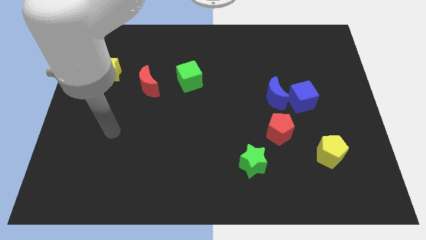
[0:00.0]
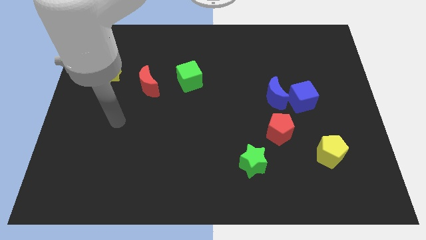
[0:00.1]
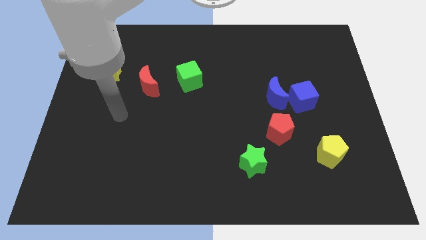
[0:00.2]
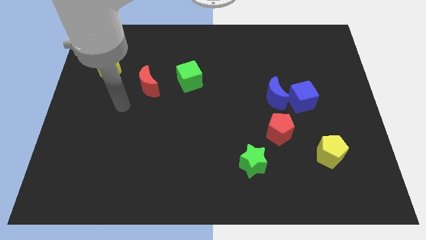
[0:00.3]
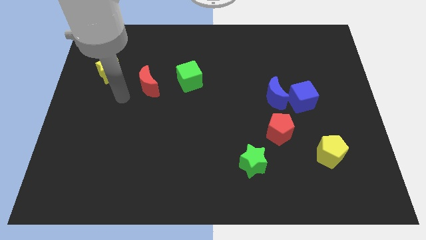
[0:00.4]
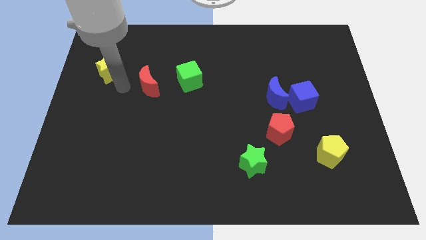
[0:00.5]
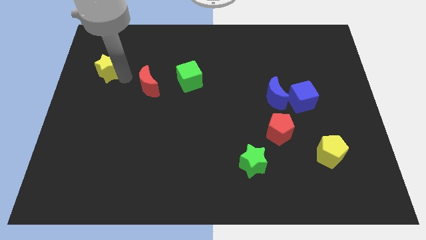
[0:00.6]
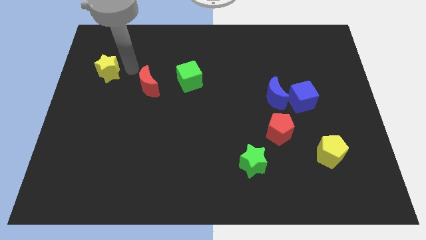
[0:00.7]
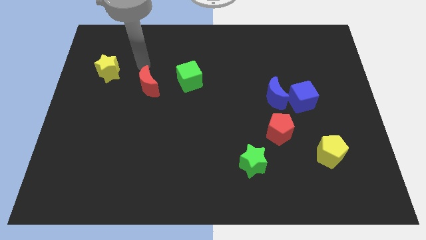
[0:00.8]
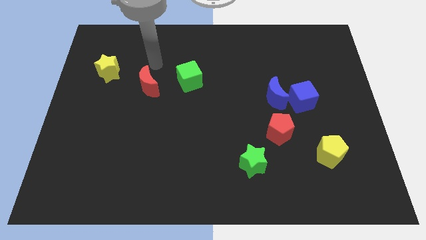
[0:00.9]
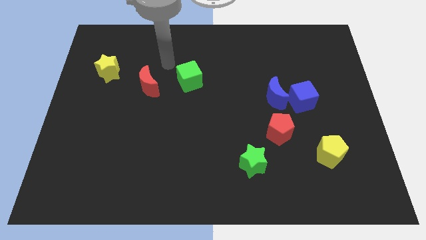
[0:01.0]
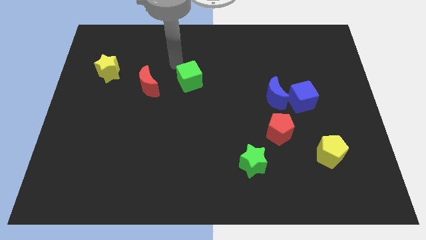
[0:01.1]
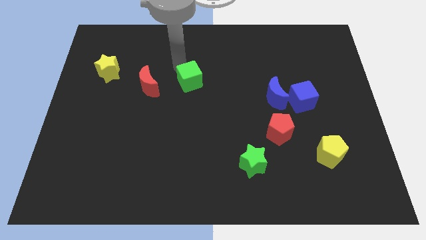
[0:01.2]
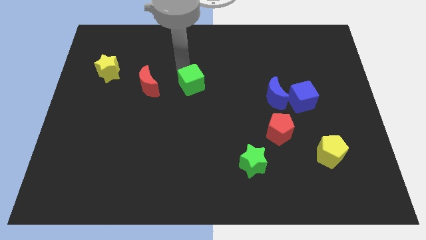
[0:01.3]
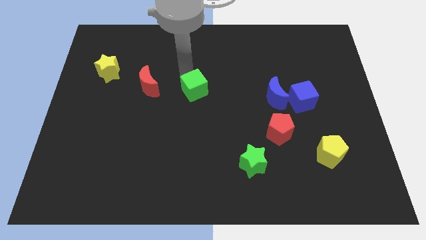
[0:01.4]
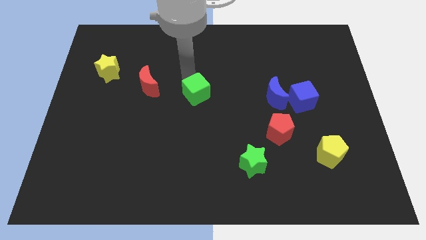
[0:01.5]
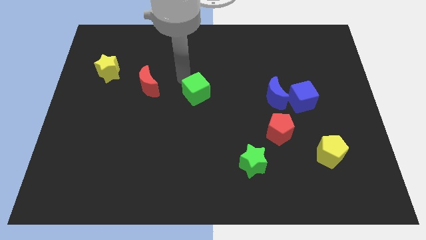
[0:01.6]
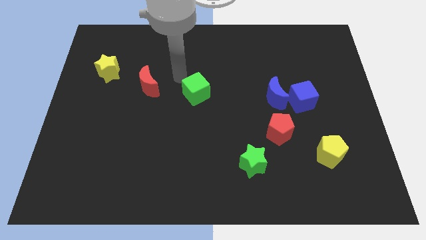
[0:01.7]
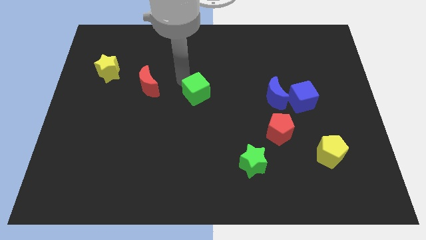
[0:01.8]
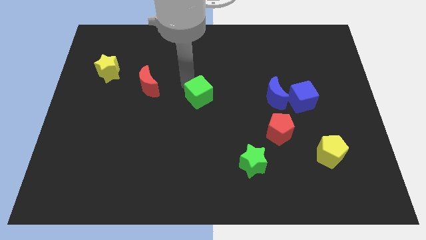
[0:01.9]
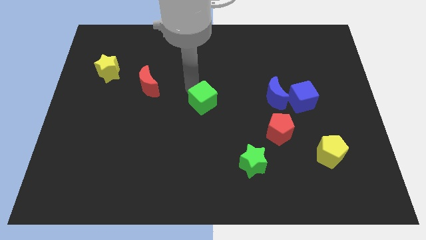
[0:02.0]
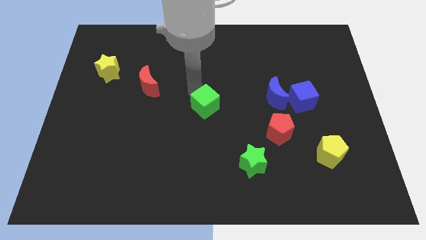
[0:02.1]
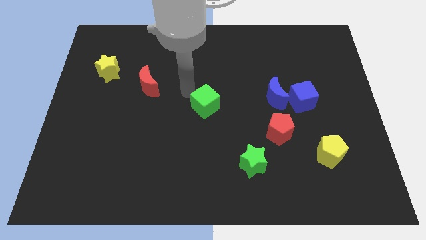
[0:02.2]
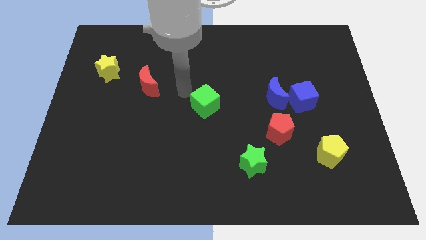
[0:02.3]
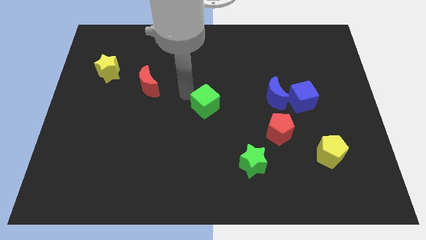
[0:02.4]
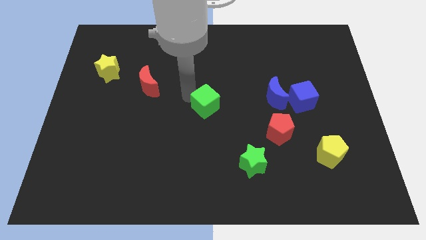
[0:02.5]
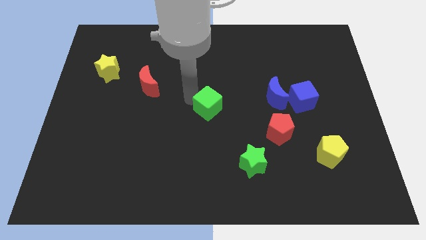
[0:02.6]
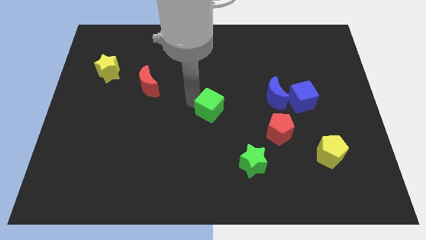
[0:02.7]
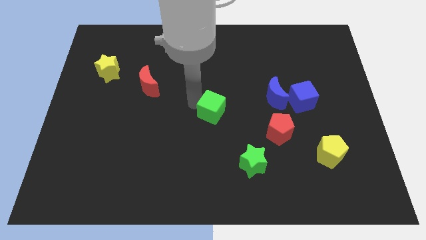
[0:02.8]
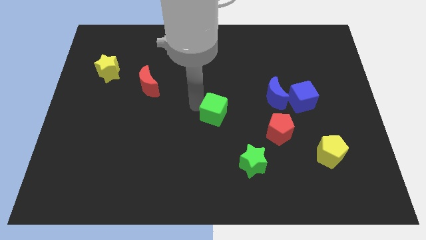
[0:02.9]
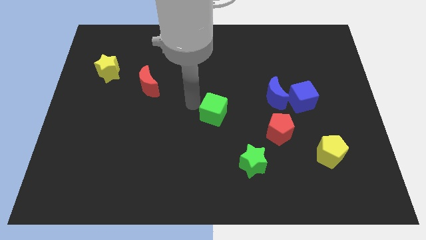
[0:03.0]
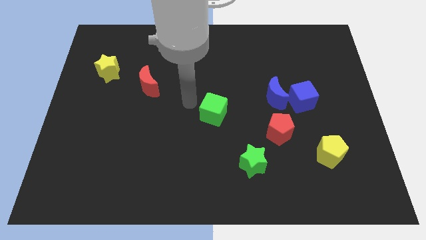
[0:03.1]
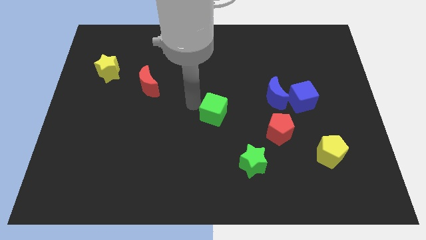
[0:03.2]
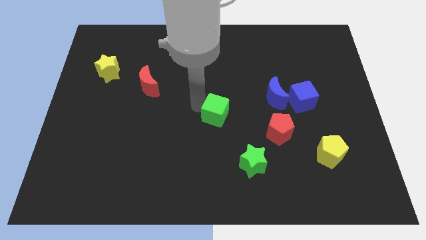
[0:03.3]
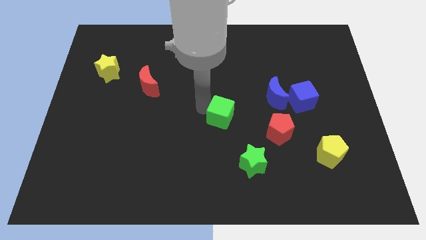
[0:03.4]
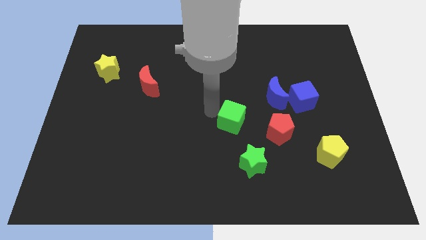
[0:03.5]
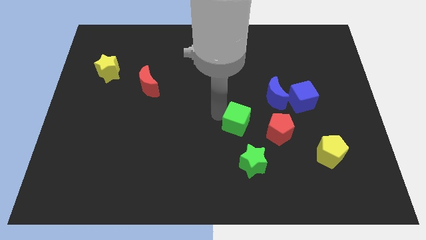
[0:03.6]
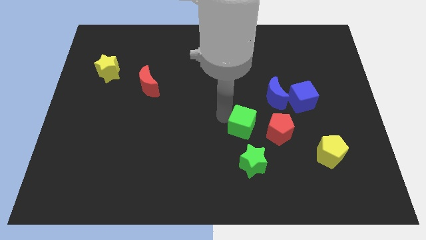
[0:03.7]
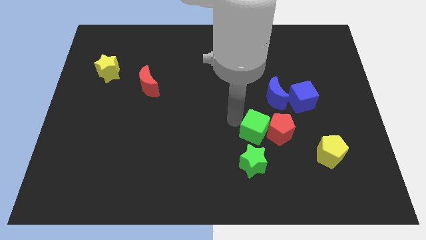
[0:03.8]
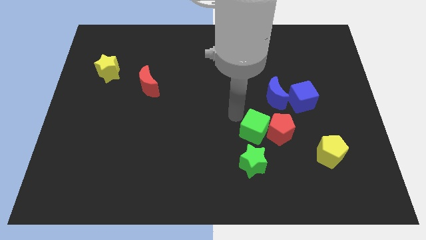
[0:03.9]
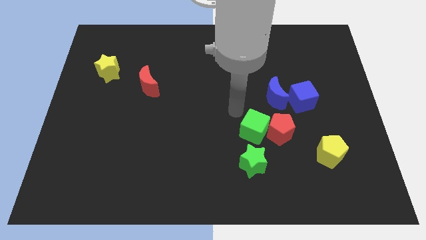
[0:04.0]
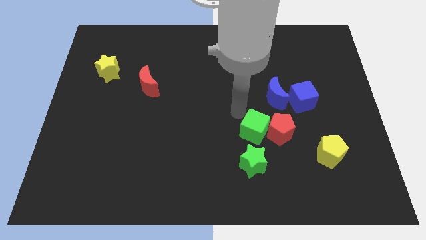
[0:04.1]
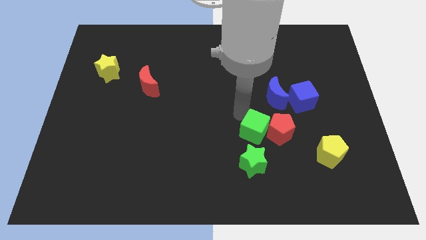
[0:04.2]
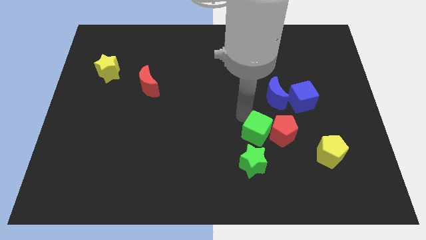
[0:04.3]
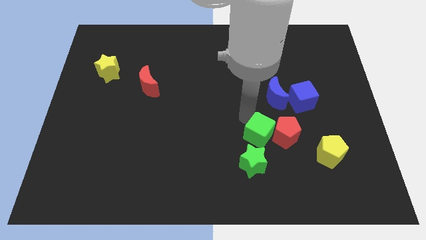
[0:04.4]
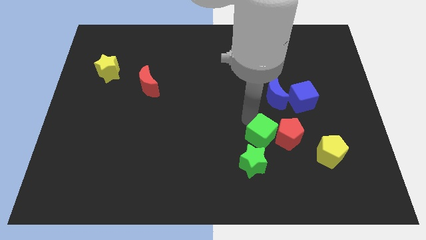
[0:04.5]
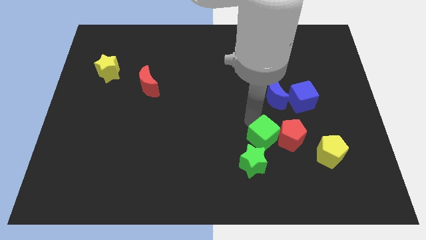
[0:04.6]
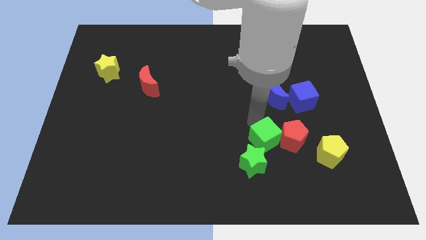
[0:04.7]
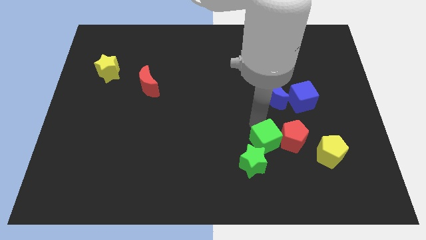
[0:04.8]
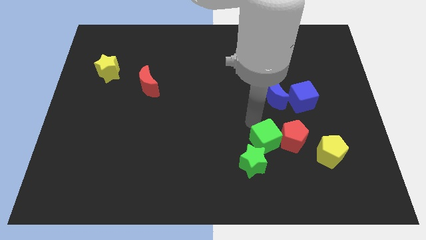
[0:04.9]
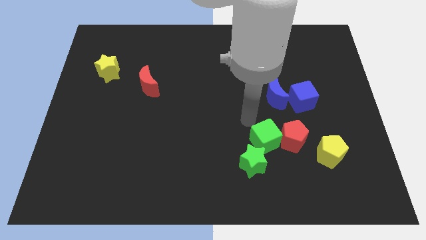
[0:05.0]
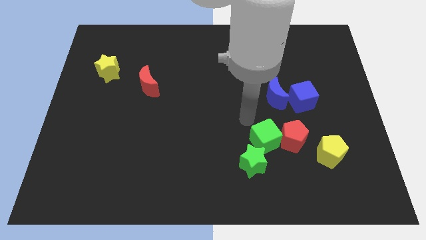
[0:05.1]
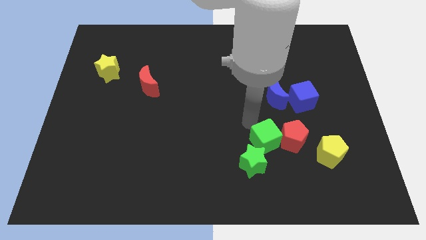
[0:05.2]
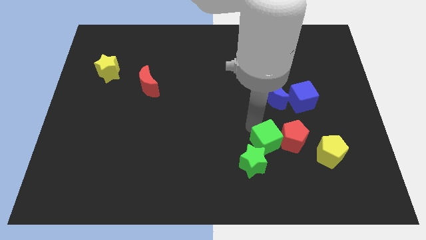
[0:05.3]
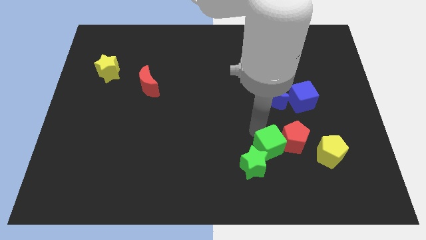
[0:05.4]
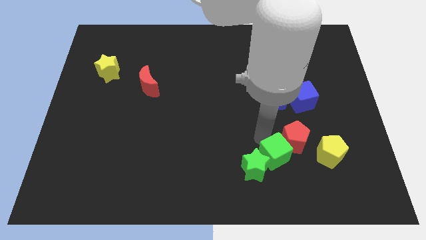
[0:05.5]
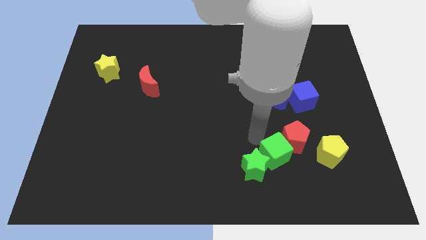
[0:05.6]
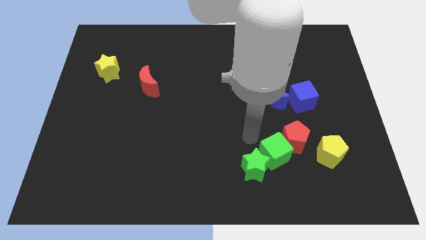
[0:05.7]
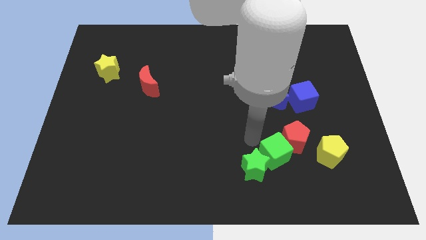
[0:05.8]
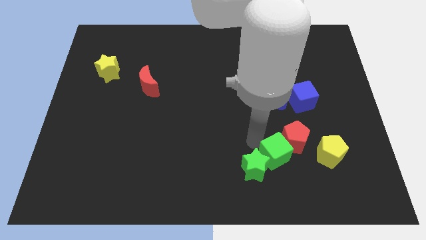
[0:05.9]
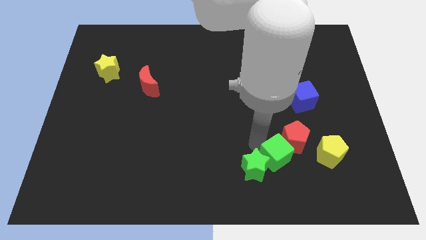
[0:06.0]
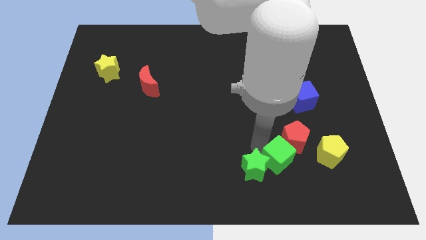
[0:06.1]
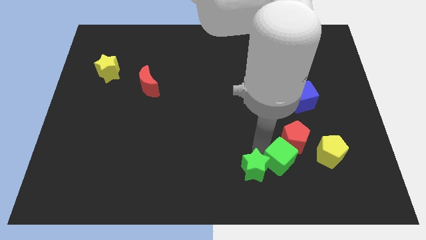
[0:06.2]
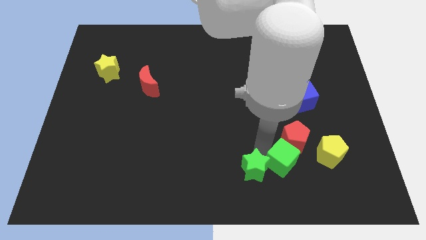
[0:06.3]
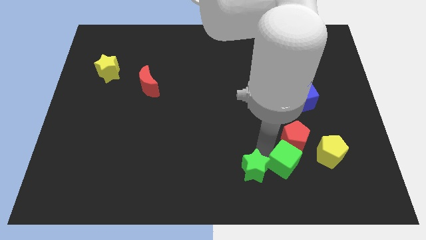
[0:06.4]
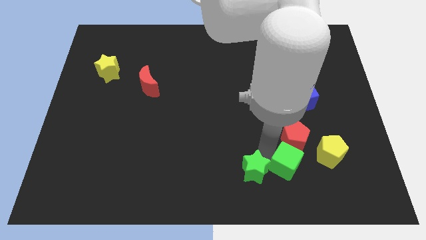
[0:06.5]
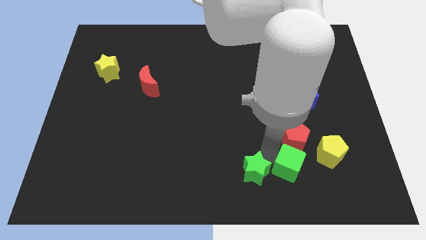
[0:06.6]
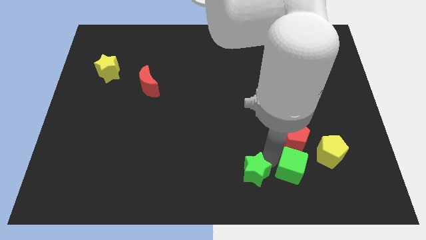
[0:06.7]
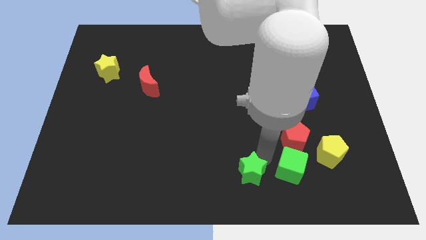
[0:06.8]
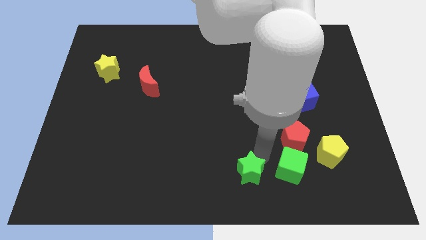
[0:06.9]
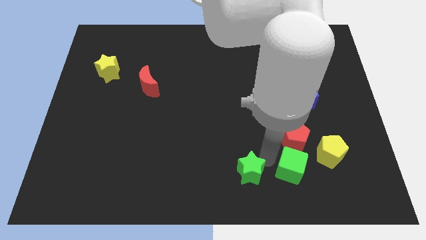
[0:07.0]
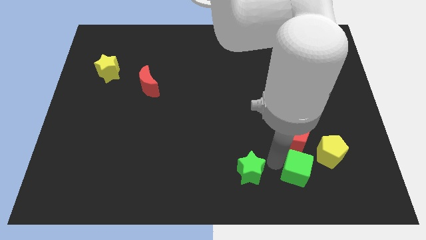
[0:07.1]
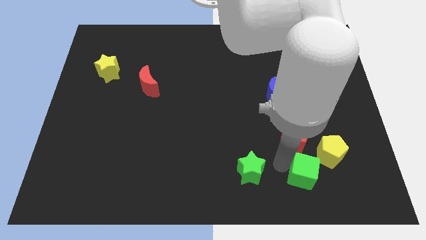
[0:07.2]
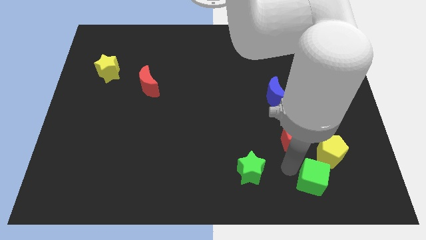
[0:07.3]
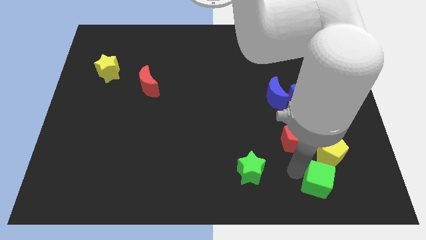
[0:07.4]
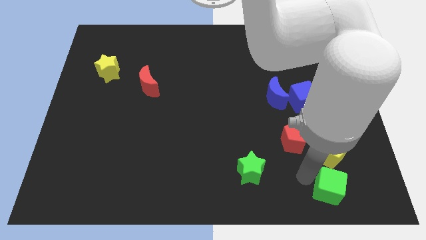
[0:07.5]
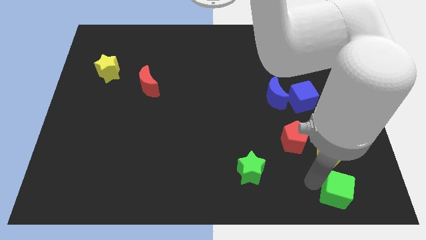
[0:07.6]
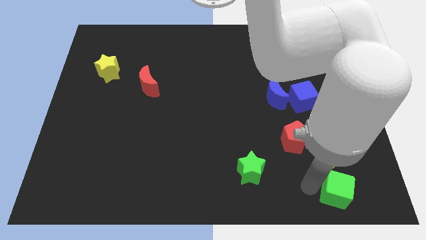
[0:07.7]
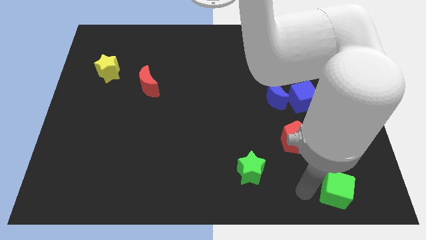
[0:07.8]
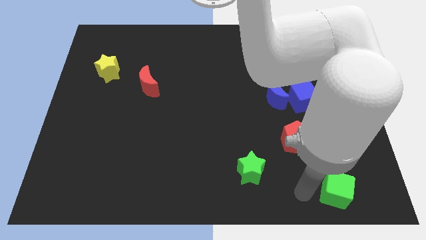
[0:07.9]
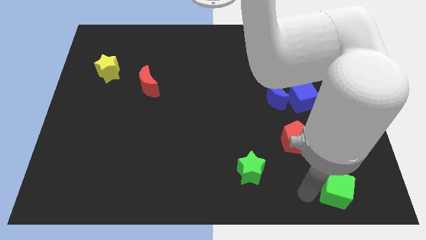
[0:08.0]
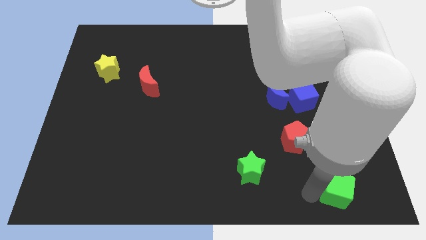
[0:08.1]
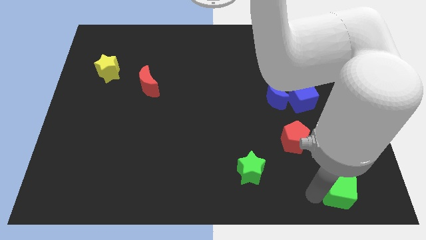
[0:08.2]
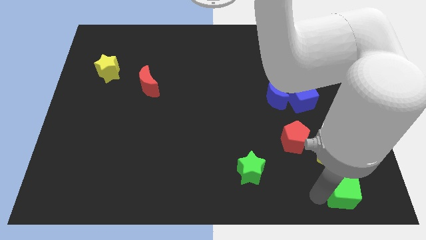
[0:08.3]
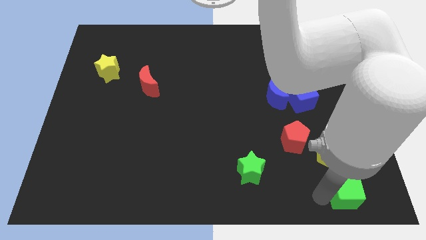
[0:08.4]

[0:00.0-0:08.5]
push the green cube to the lower right corner
